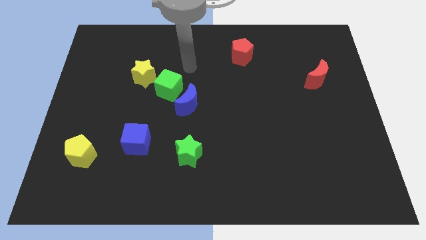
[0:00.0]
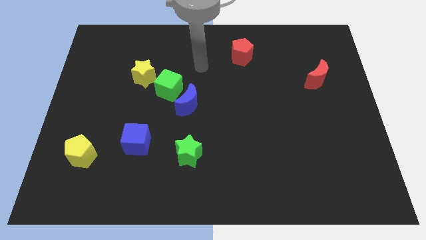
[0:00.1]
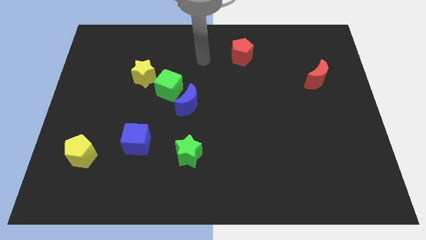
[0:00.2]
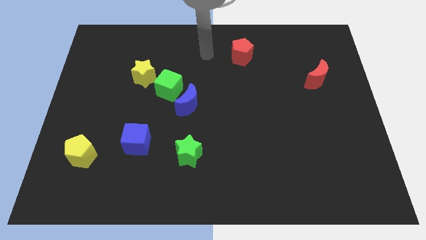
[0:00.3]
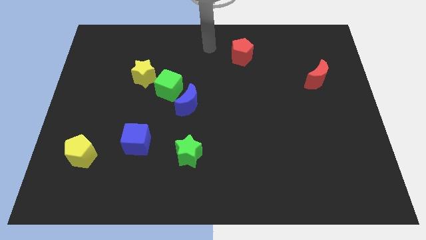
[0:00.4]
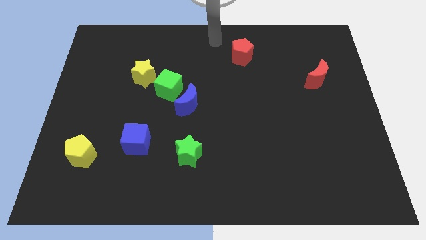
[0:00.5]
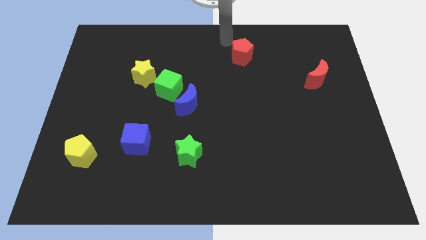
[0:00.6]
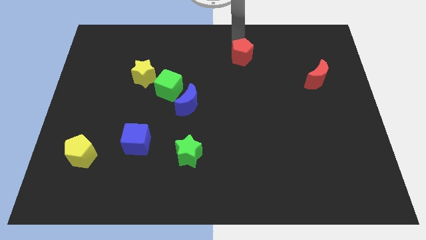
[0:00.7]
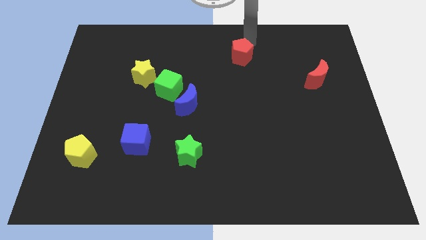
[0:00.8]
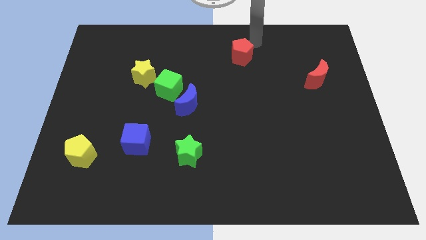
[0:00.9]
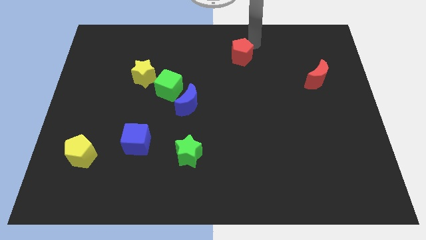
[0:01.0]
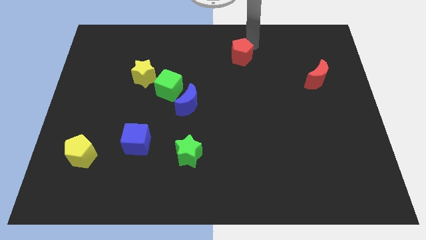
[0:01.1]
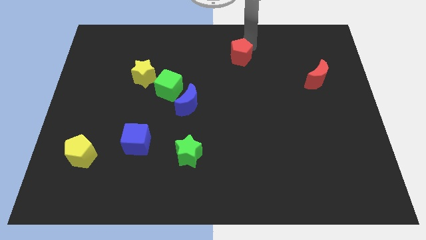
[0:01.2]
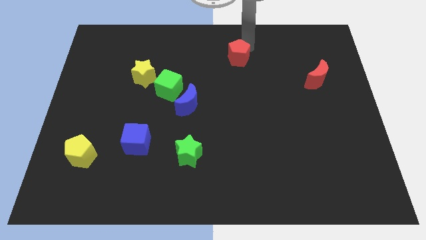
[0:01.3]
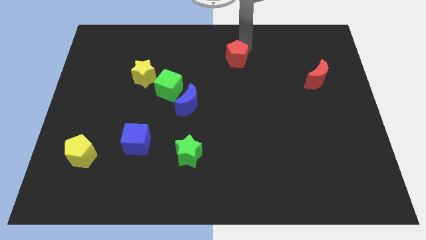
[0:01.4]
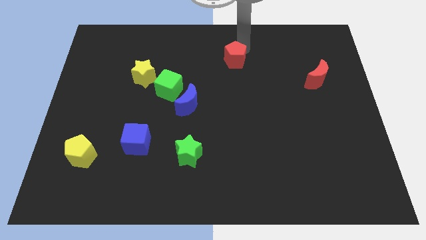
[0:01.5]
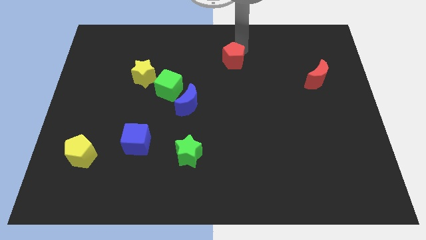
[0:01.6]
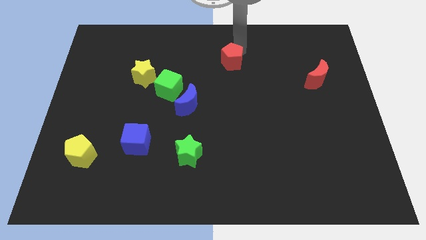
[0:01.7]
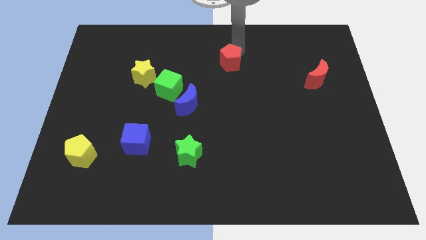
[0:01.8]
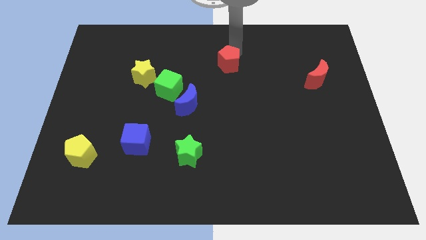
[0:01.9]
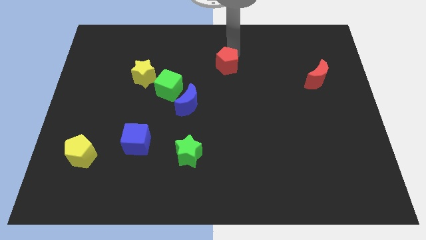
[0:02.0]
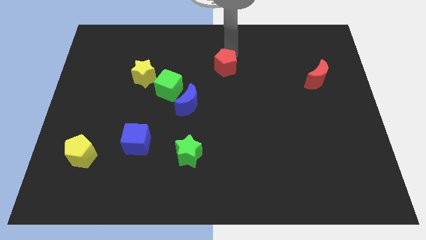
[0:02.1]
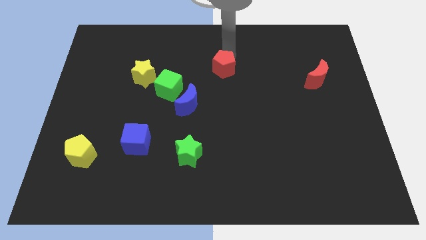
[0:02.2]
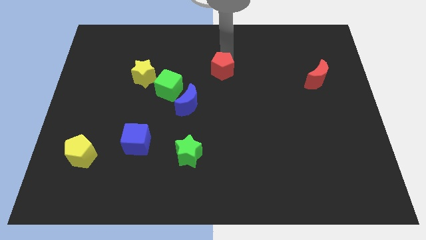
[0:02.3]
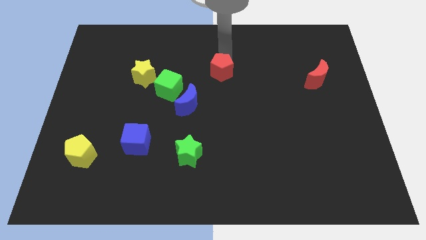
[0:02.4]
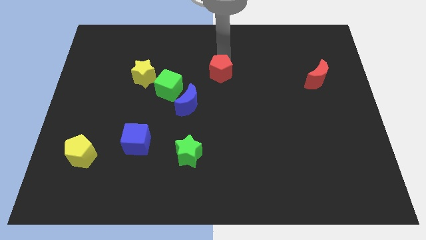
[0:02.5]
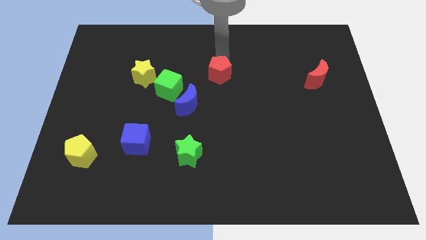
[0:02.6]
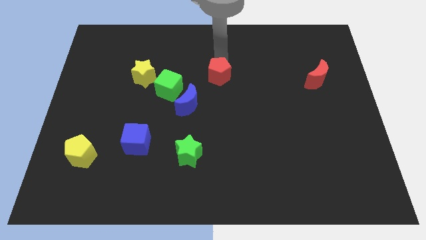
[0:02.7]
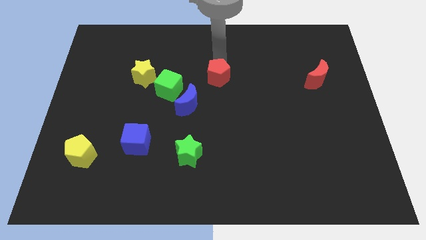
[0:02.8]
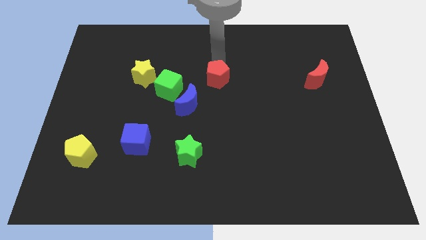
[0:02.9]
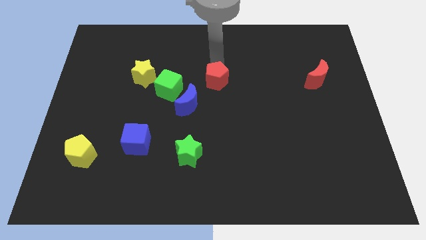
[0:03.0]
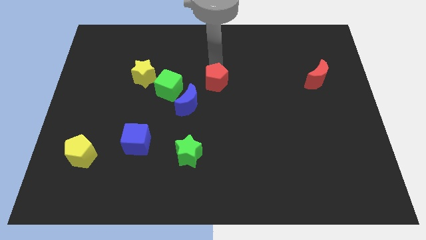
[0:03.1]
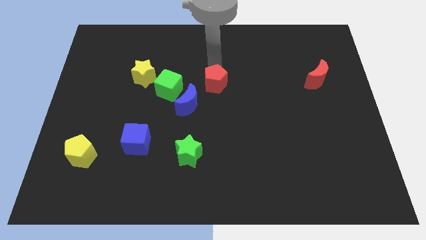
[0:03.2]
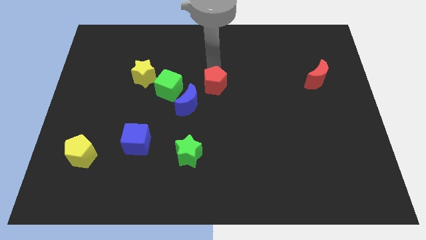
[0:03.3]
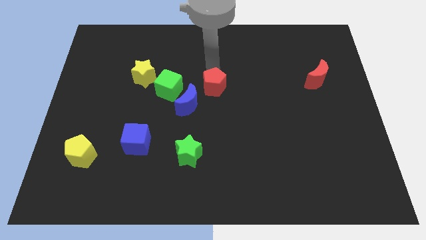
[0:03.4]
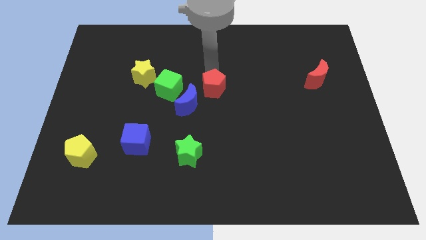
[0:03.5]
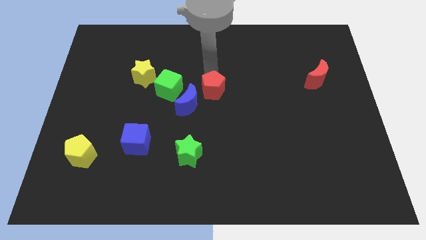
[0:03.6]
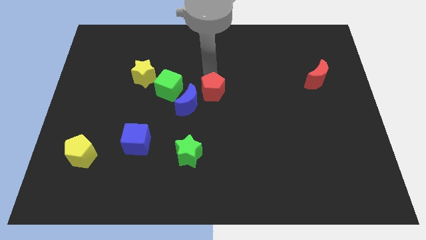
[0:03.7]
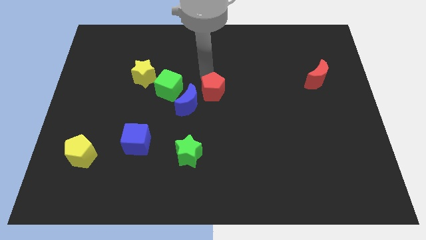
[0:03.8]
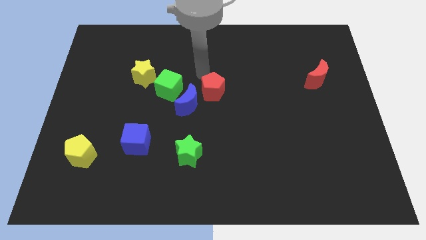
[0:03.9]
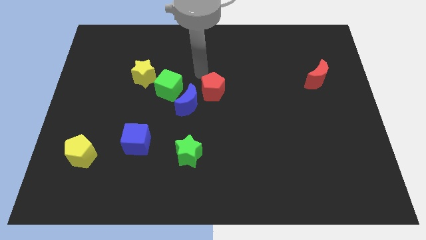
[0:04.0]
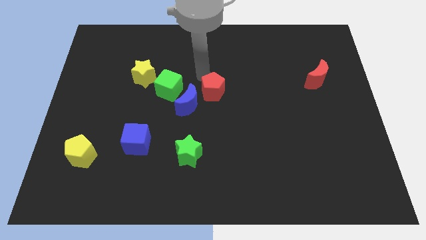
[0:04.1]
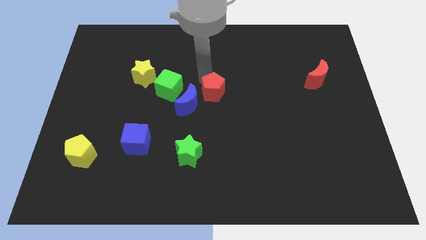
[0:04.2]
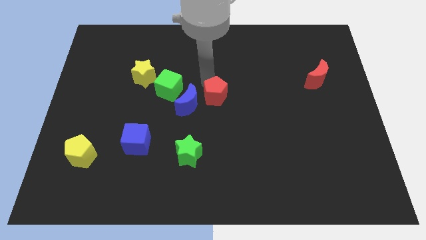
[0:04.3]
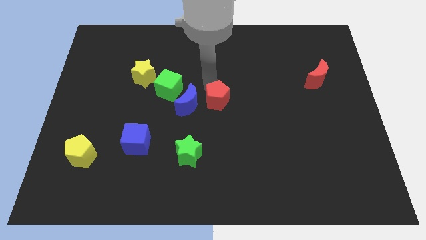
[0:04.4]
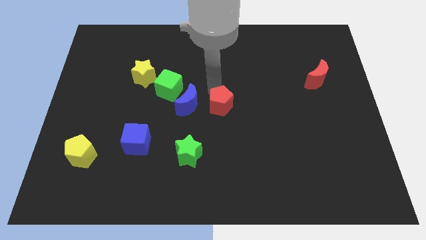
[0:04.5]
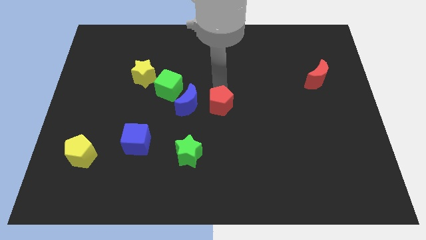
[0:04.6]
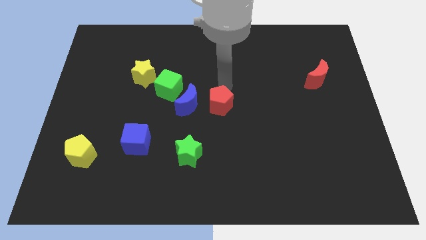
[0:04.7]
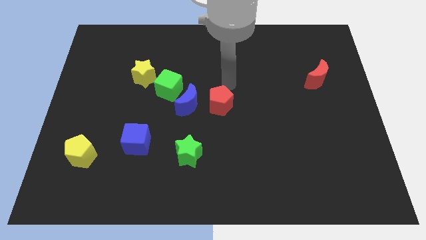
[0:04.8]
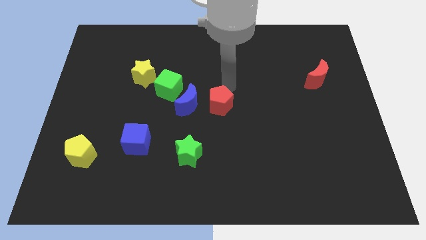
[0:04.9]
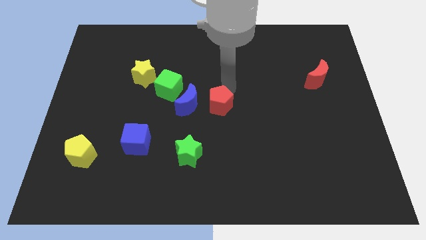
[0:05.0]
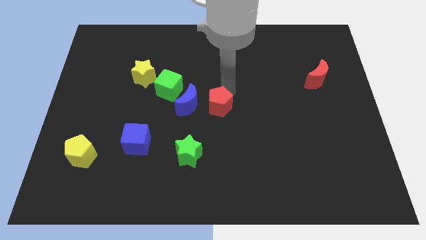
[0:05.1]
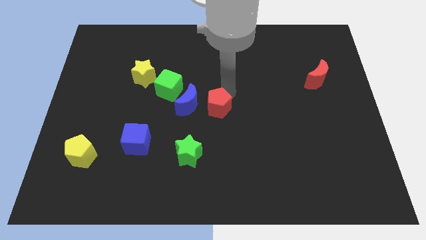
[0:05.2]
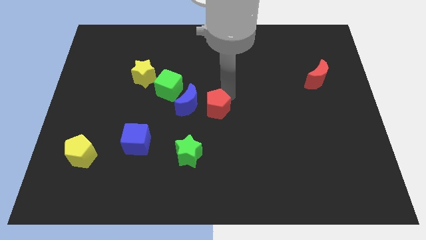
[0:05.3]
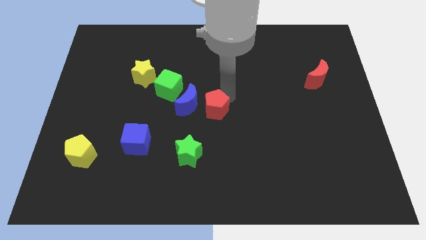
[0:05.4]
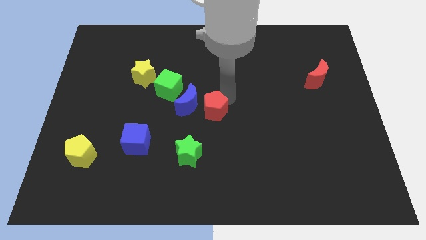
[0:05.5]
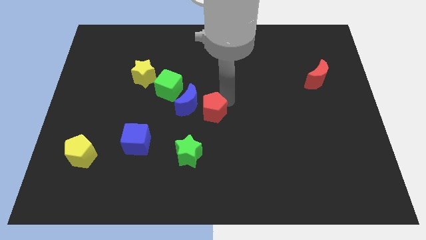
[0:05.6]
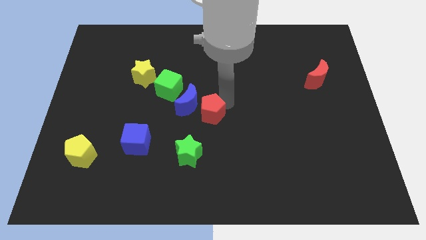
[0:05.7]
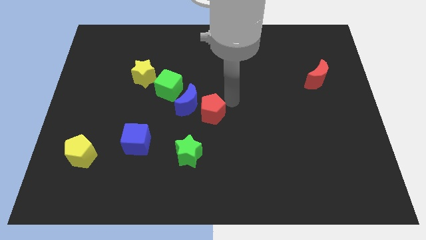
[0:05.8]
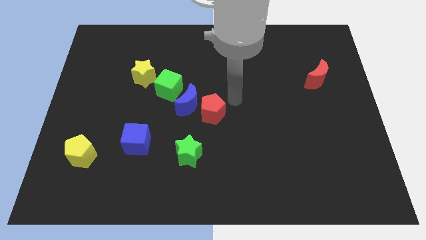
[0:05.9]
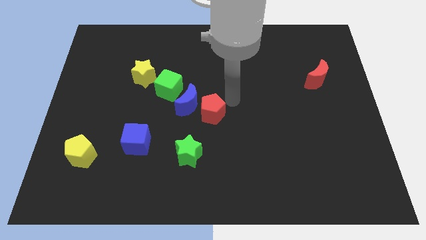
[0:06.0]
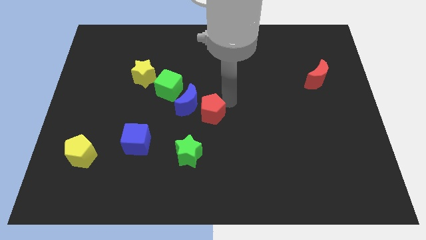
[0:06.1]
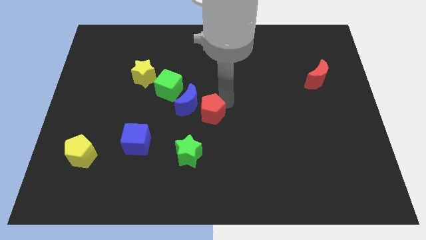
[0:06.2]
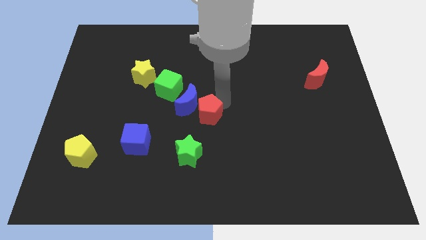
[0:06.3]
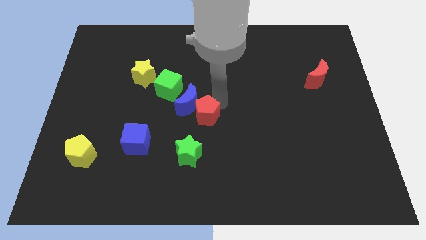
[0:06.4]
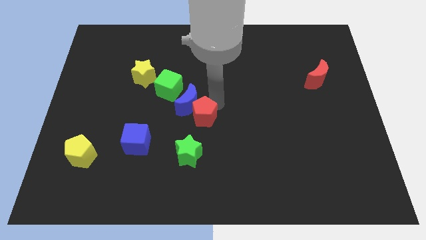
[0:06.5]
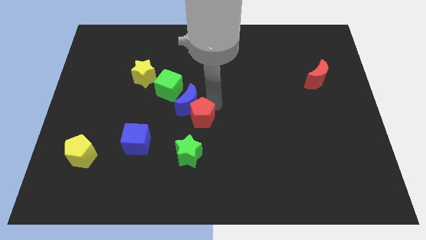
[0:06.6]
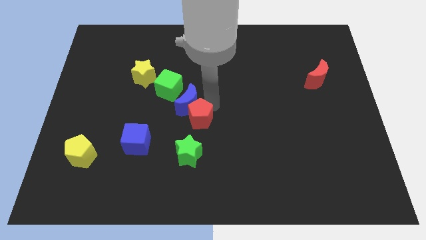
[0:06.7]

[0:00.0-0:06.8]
slide the red pentagon downwards and to the left

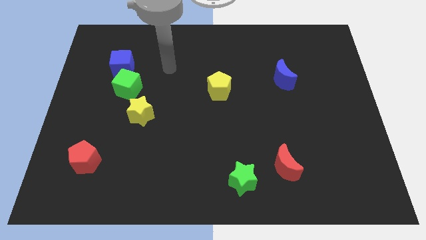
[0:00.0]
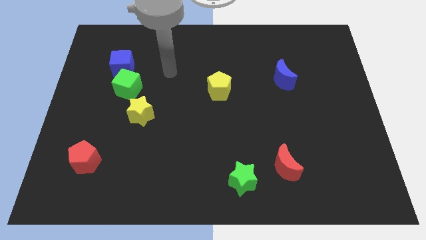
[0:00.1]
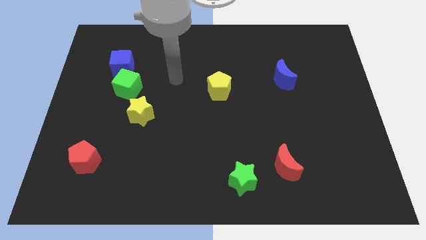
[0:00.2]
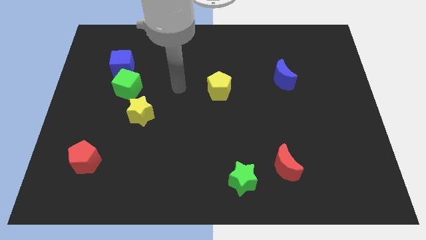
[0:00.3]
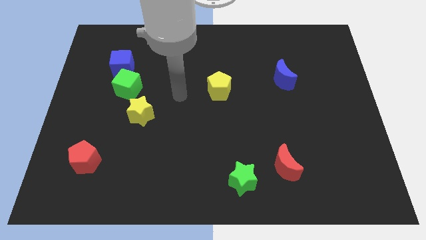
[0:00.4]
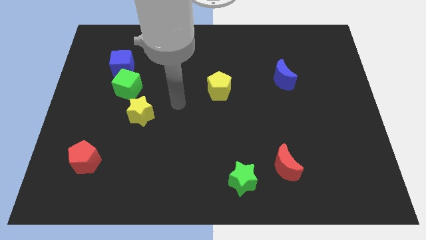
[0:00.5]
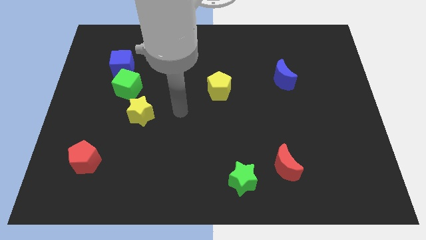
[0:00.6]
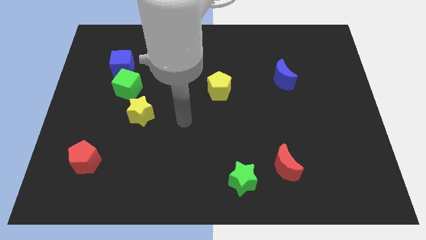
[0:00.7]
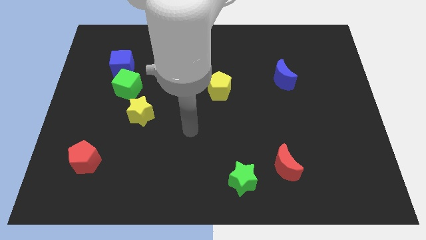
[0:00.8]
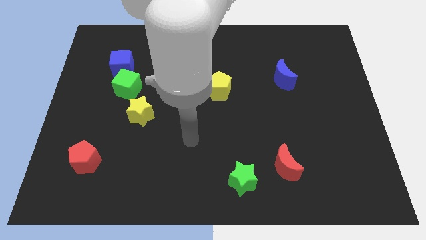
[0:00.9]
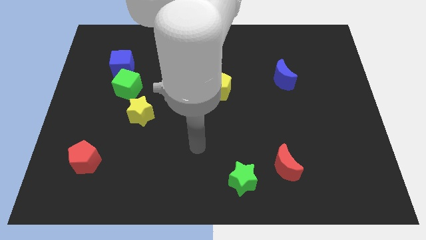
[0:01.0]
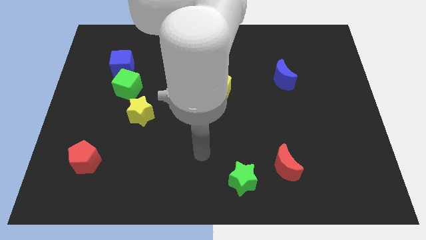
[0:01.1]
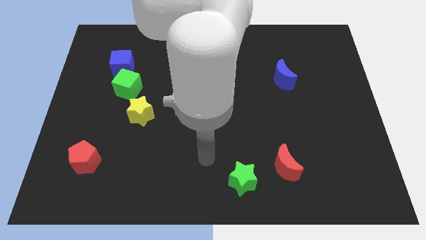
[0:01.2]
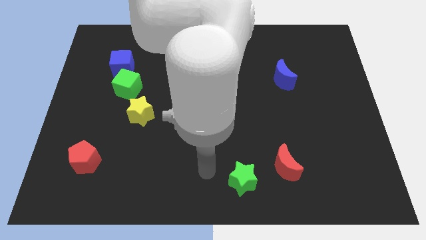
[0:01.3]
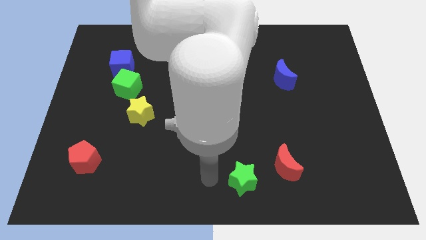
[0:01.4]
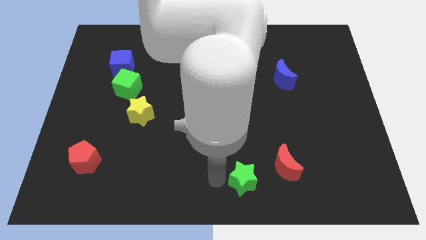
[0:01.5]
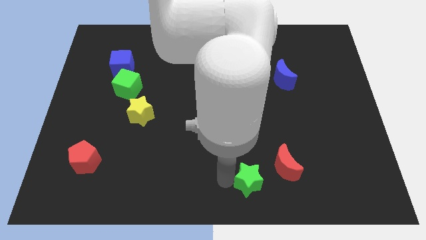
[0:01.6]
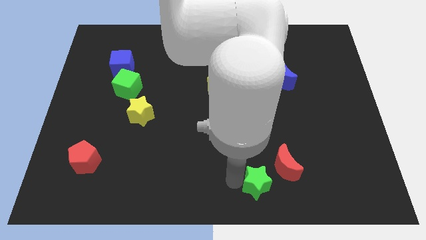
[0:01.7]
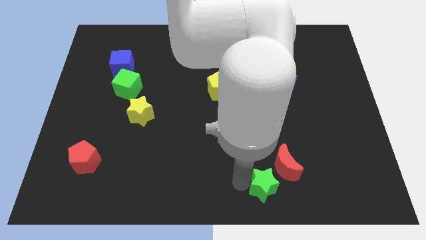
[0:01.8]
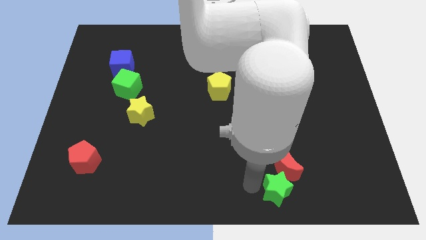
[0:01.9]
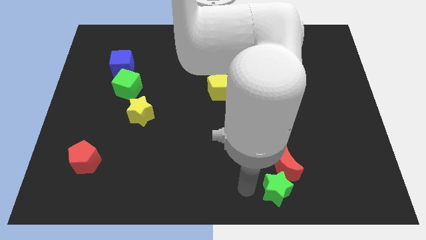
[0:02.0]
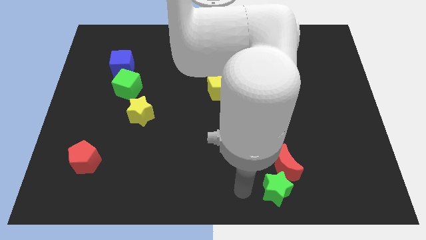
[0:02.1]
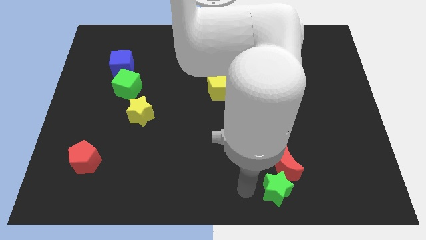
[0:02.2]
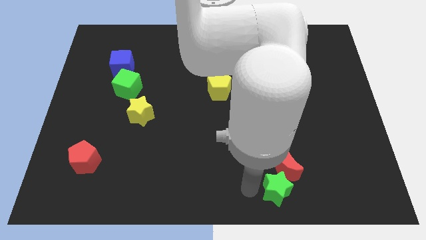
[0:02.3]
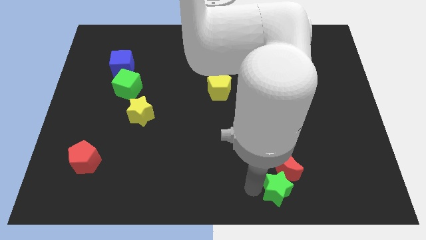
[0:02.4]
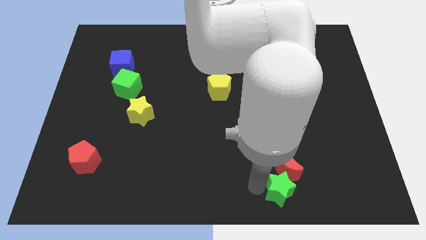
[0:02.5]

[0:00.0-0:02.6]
slightly slide the green star right
